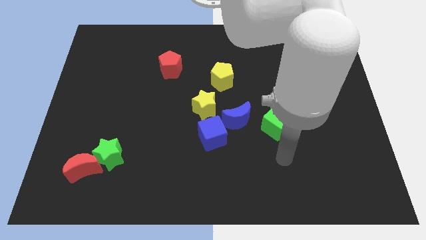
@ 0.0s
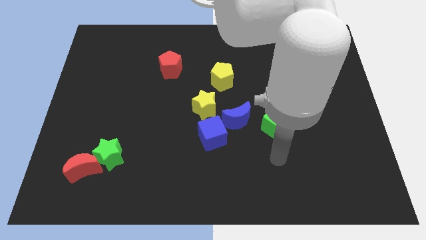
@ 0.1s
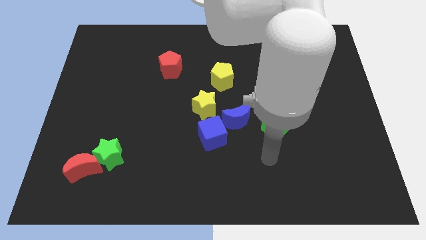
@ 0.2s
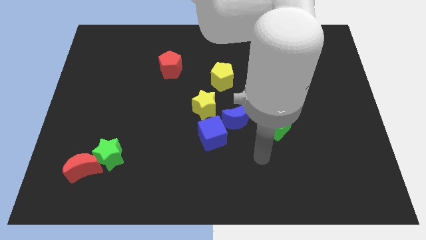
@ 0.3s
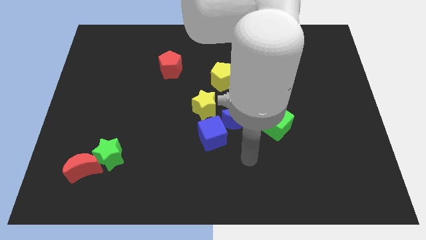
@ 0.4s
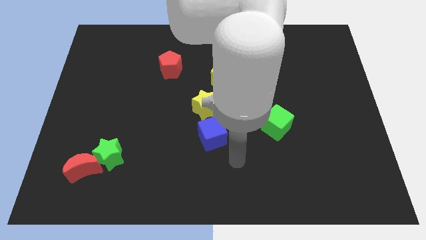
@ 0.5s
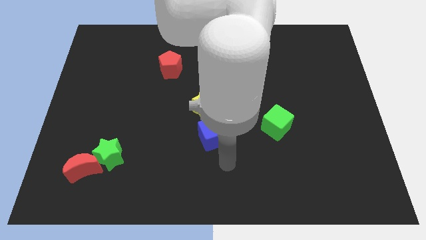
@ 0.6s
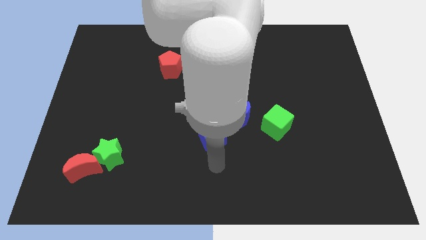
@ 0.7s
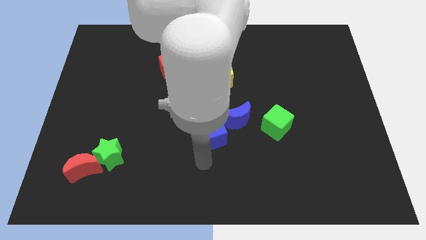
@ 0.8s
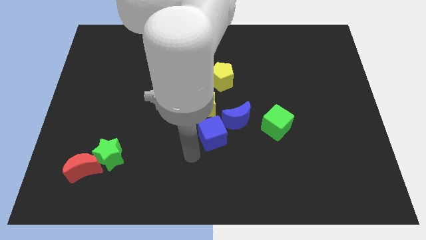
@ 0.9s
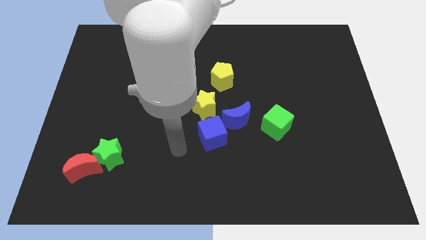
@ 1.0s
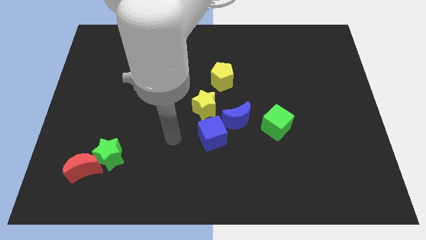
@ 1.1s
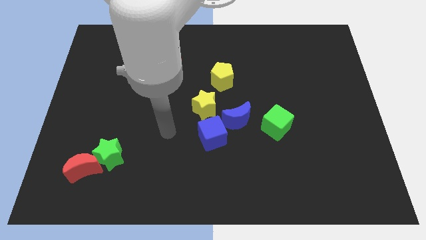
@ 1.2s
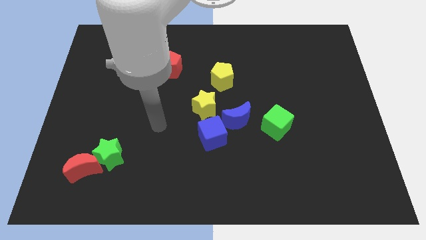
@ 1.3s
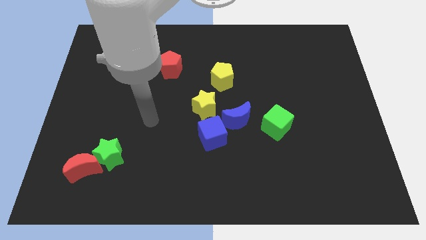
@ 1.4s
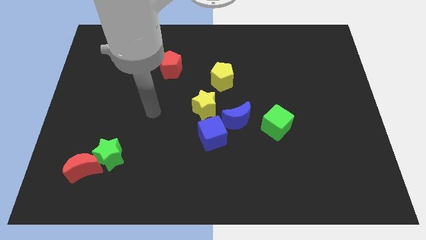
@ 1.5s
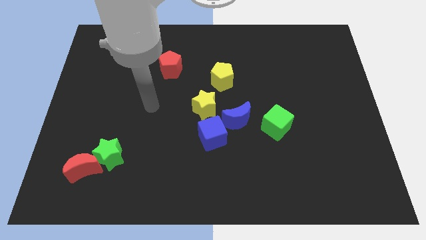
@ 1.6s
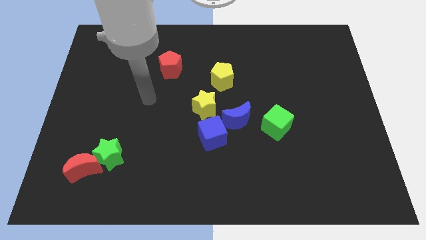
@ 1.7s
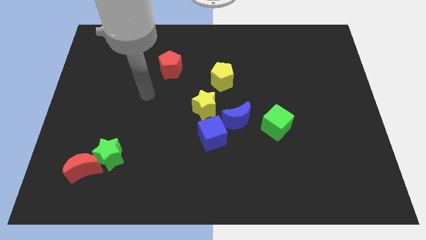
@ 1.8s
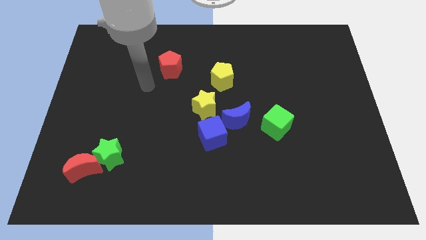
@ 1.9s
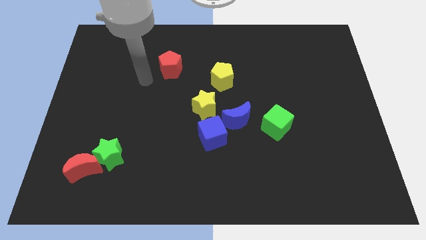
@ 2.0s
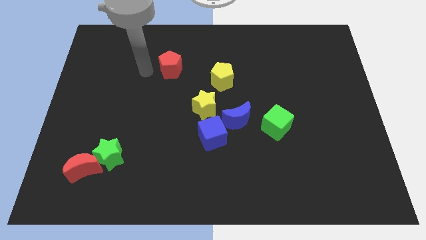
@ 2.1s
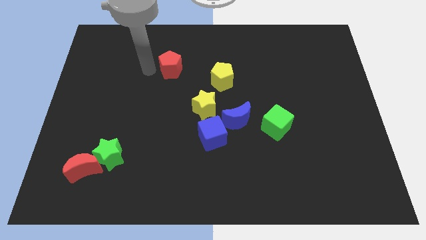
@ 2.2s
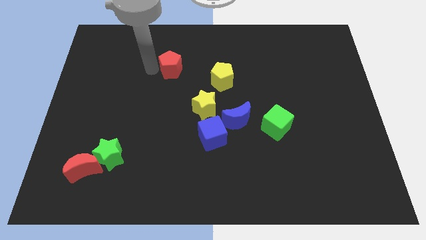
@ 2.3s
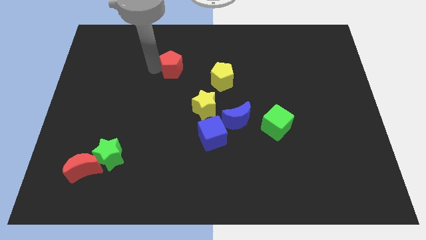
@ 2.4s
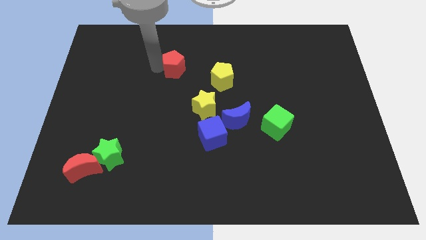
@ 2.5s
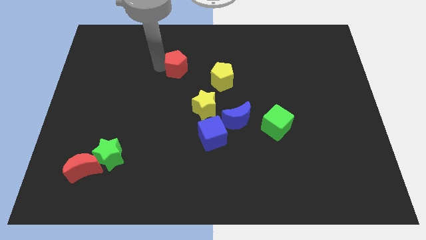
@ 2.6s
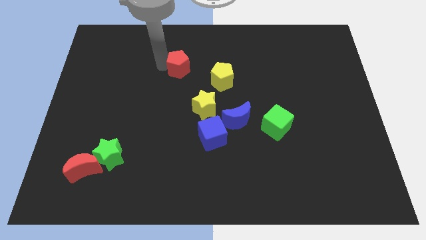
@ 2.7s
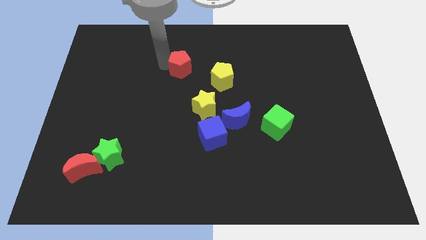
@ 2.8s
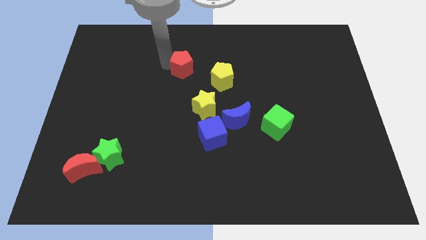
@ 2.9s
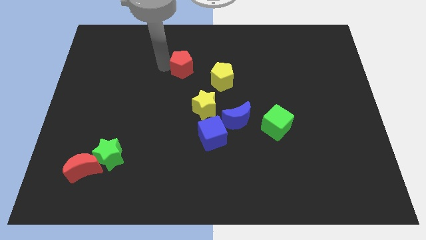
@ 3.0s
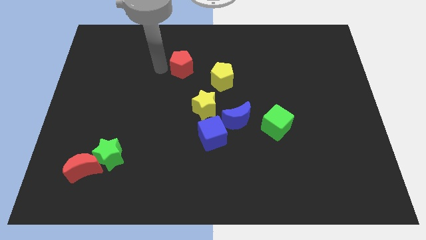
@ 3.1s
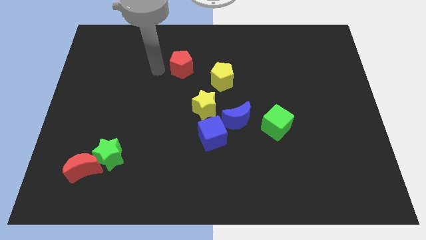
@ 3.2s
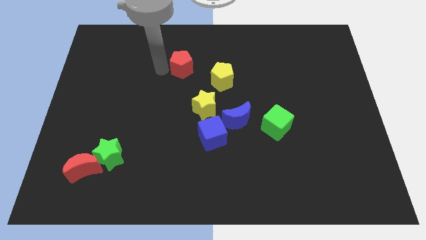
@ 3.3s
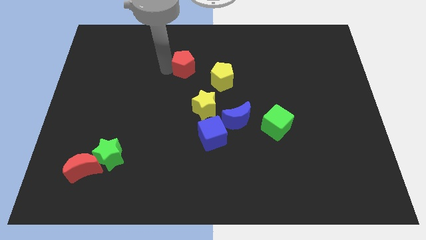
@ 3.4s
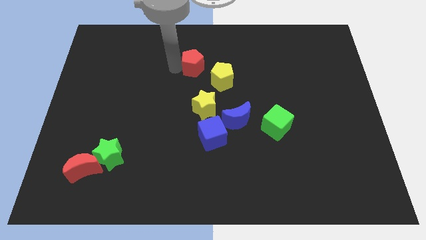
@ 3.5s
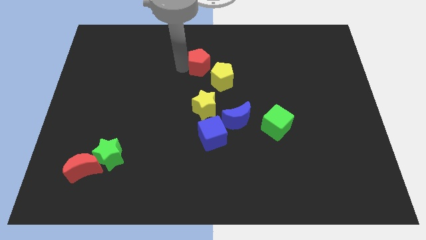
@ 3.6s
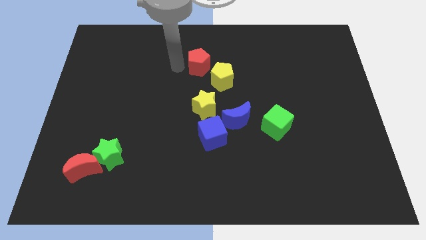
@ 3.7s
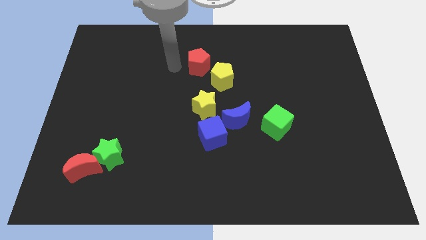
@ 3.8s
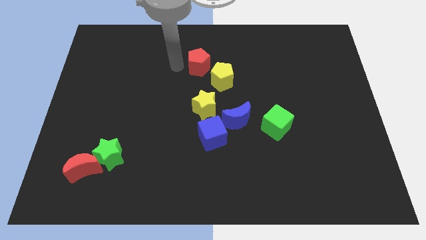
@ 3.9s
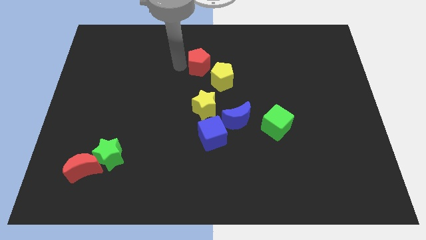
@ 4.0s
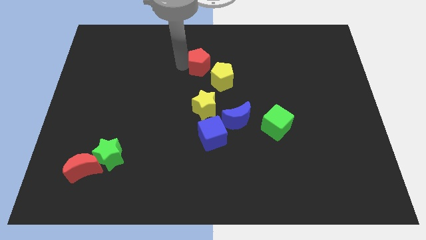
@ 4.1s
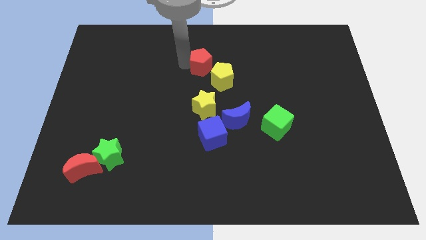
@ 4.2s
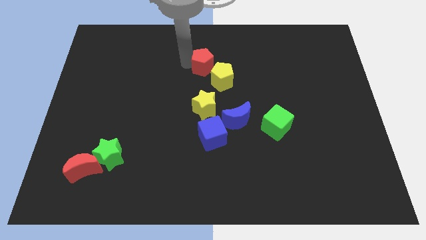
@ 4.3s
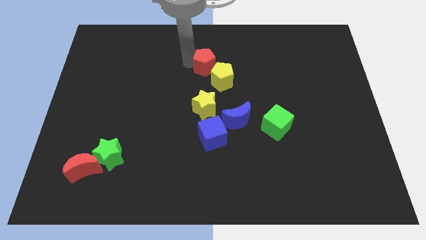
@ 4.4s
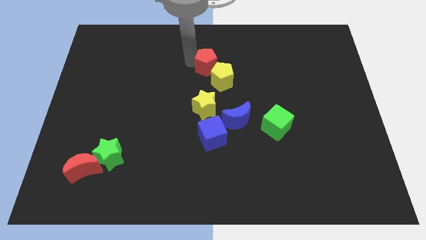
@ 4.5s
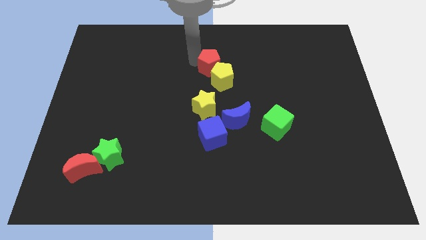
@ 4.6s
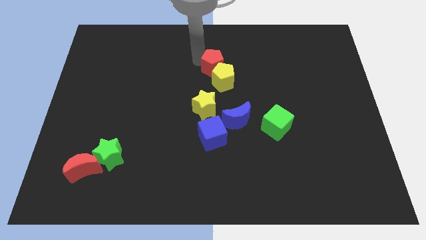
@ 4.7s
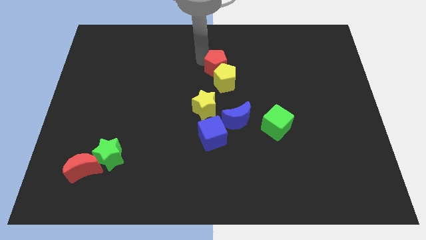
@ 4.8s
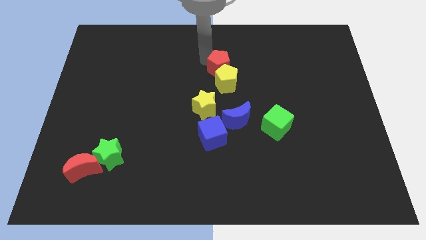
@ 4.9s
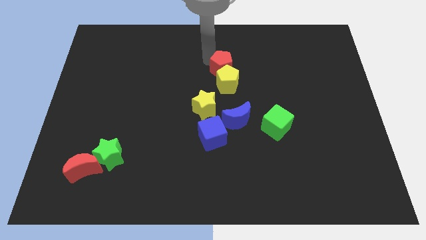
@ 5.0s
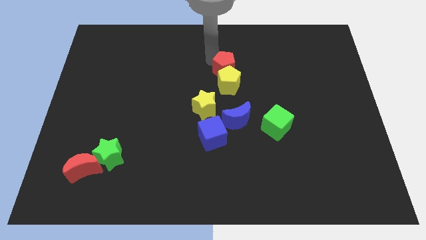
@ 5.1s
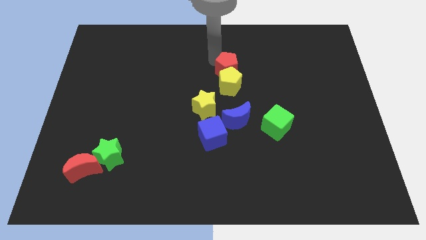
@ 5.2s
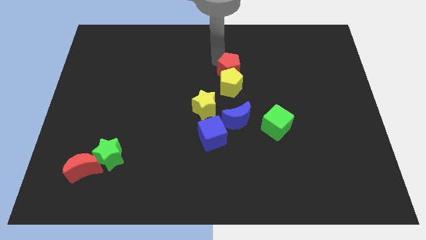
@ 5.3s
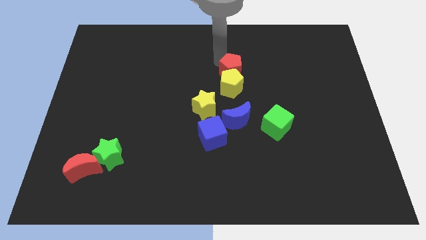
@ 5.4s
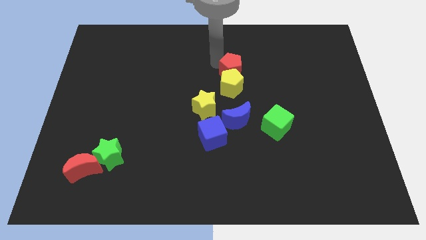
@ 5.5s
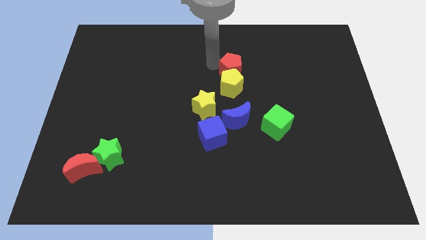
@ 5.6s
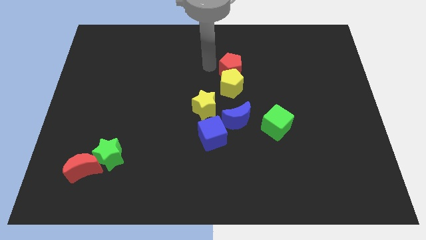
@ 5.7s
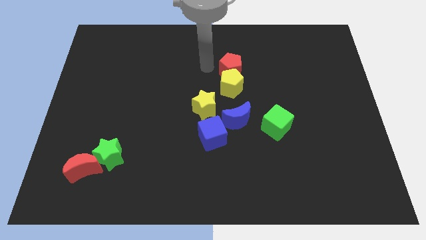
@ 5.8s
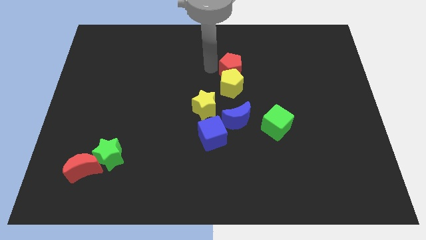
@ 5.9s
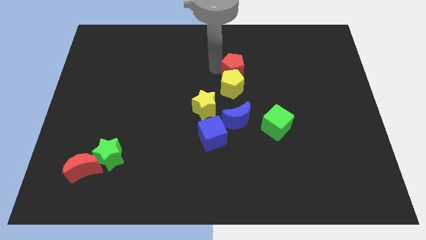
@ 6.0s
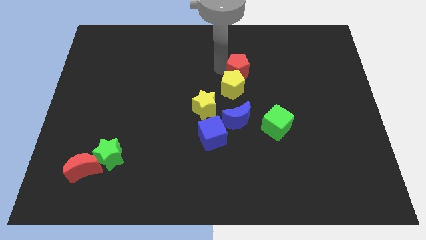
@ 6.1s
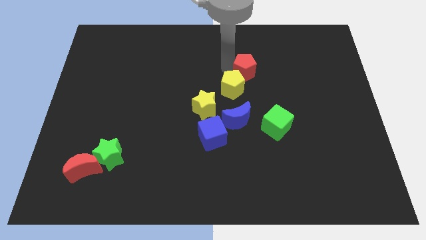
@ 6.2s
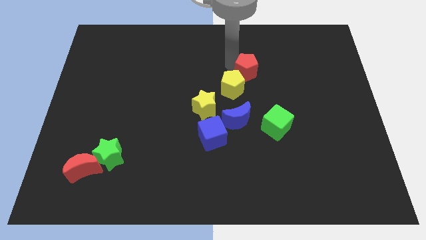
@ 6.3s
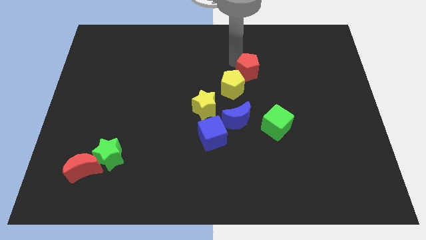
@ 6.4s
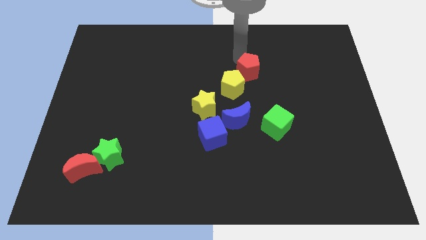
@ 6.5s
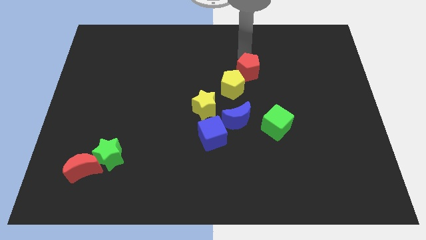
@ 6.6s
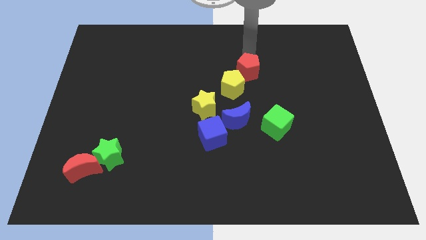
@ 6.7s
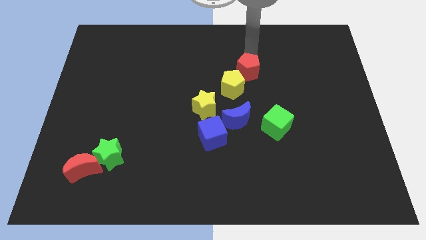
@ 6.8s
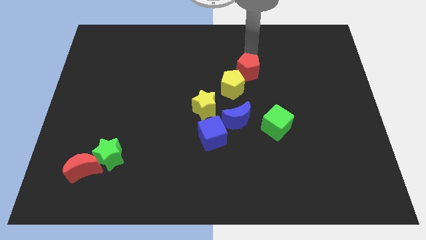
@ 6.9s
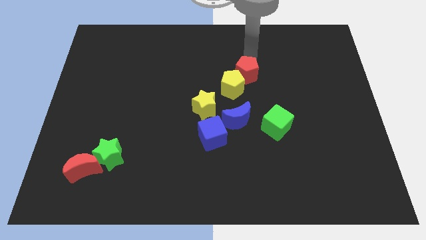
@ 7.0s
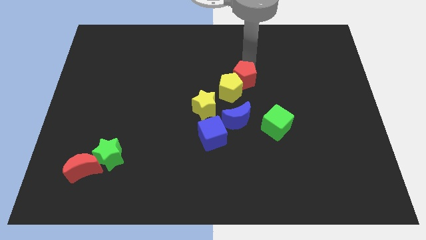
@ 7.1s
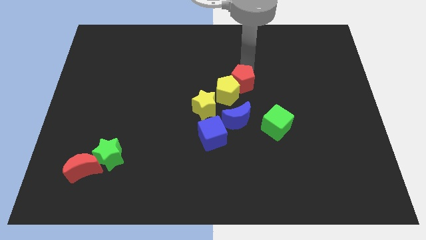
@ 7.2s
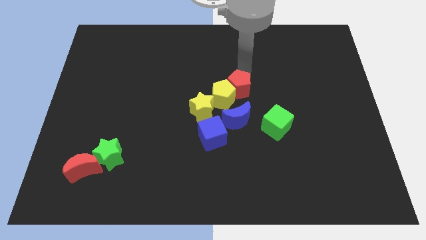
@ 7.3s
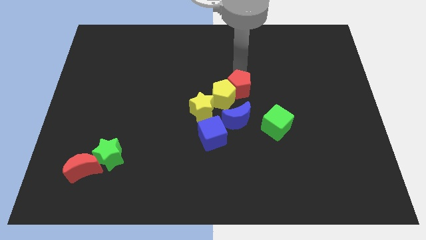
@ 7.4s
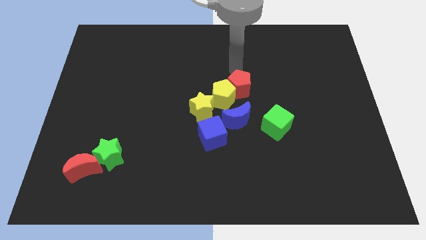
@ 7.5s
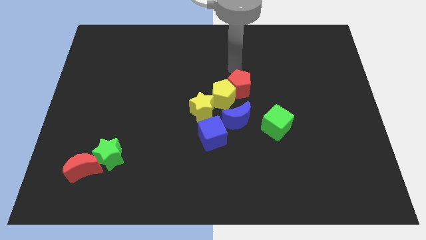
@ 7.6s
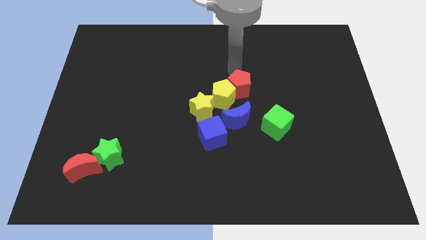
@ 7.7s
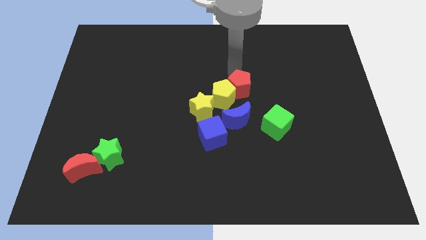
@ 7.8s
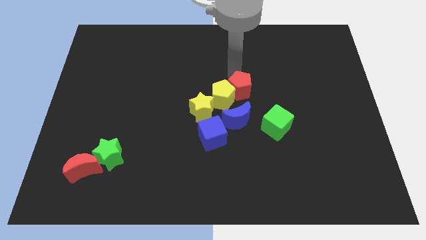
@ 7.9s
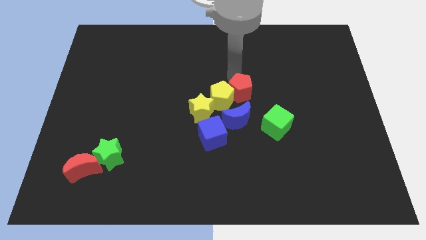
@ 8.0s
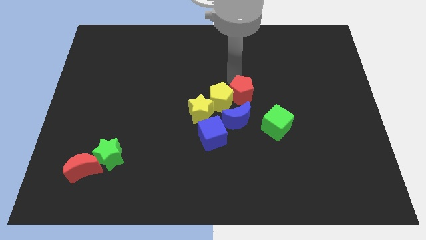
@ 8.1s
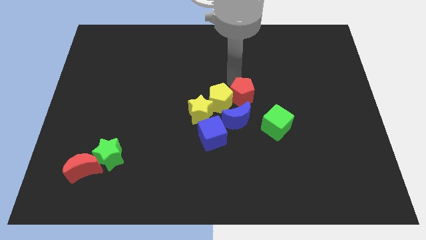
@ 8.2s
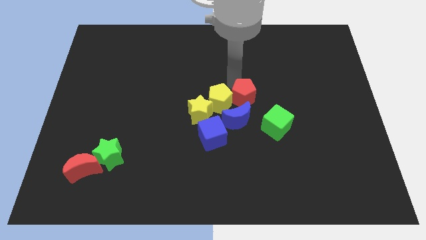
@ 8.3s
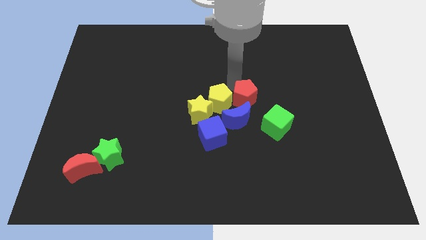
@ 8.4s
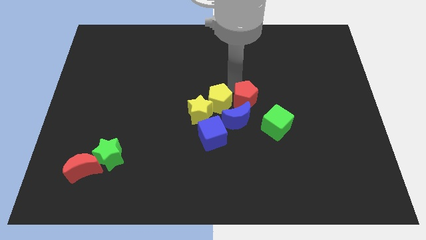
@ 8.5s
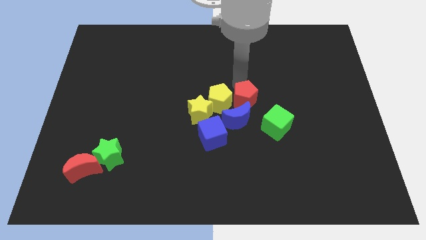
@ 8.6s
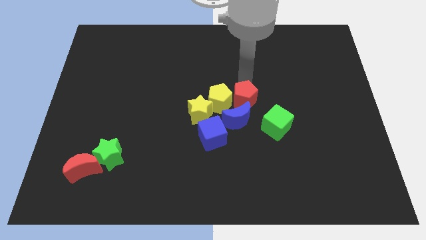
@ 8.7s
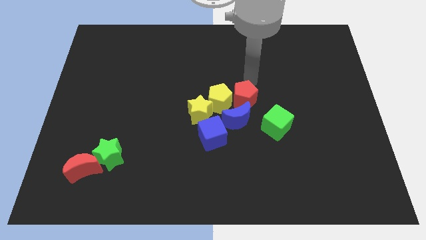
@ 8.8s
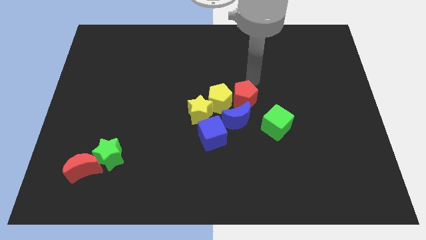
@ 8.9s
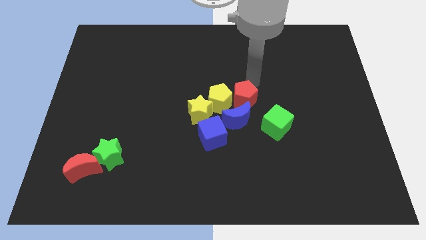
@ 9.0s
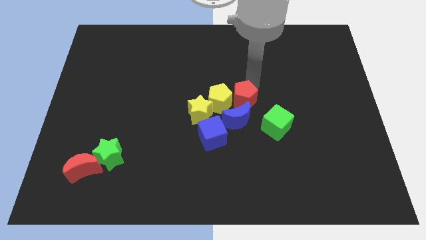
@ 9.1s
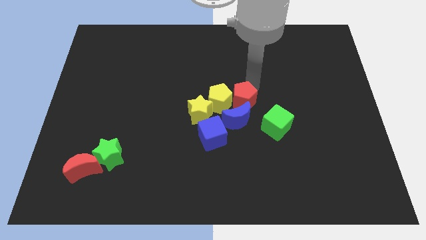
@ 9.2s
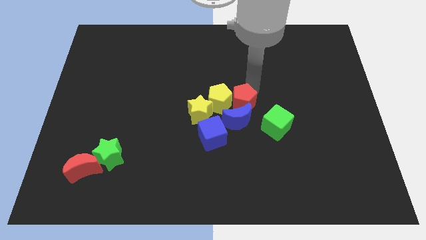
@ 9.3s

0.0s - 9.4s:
put the red pentagon to the top right side of the blue cube
